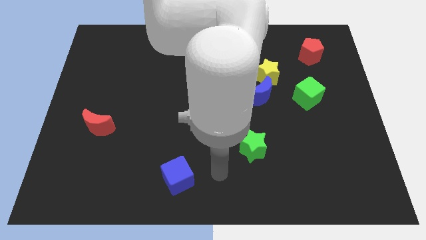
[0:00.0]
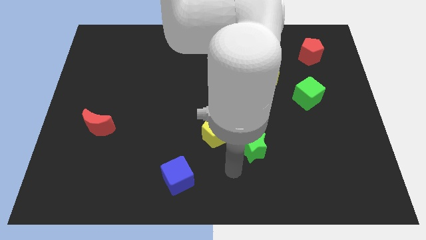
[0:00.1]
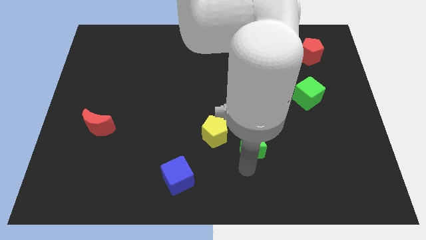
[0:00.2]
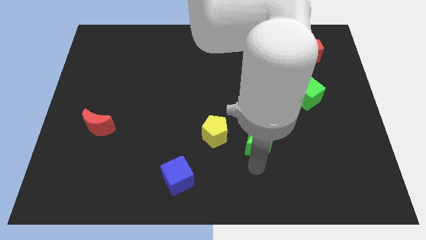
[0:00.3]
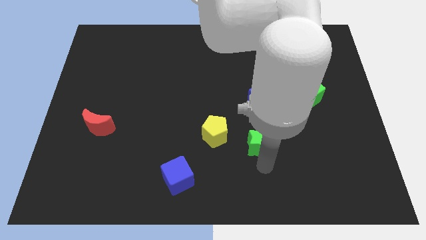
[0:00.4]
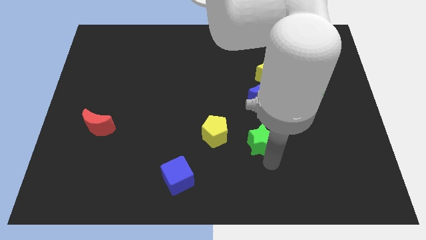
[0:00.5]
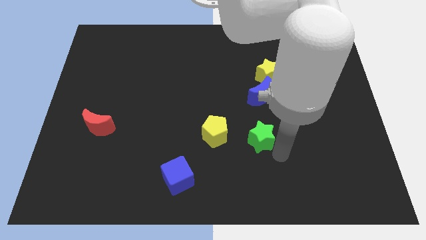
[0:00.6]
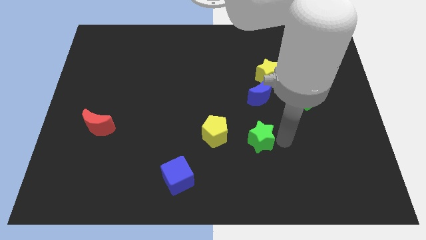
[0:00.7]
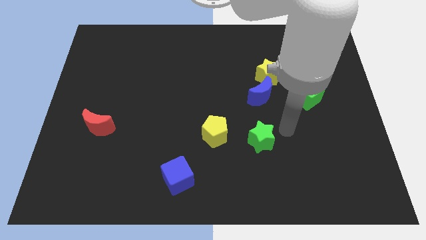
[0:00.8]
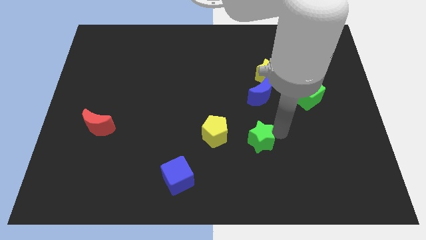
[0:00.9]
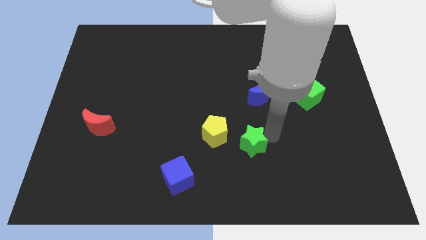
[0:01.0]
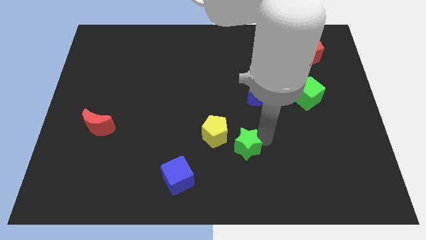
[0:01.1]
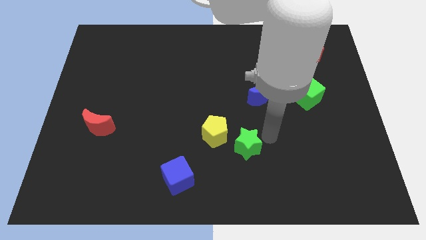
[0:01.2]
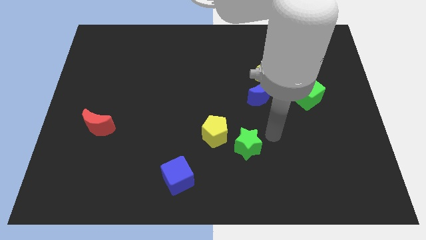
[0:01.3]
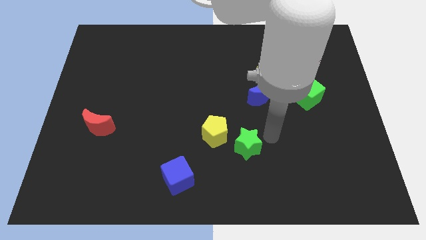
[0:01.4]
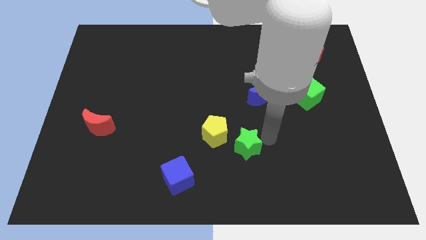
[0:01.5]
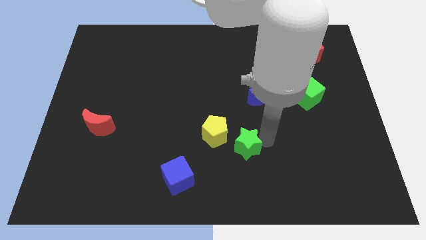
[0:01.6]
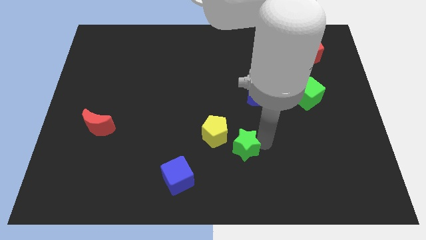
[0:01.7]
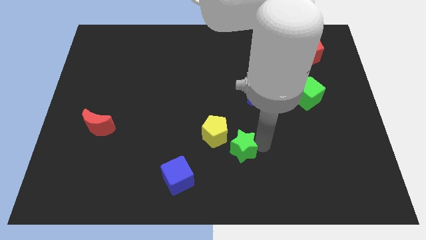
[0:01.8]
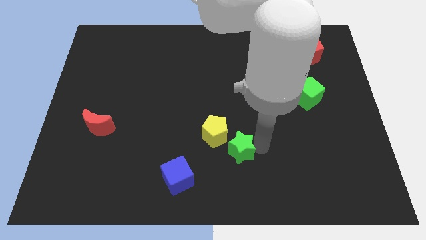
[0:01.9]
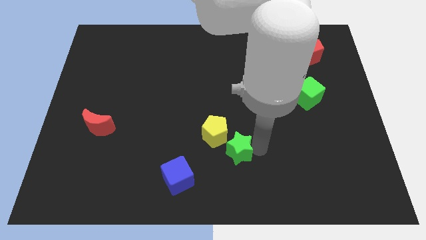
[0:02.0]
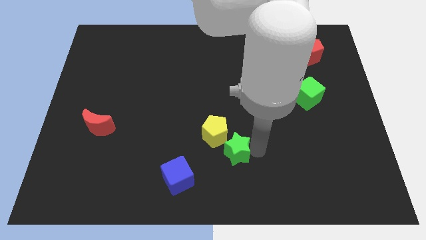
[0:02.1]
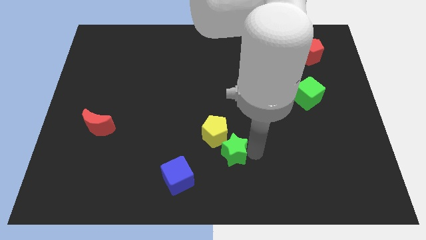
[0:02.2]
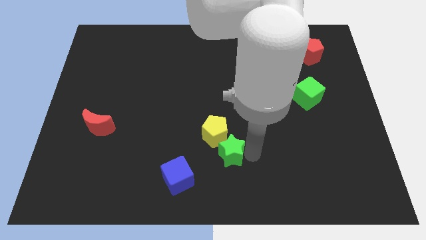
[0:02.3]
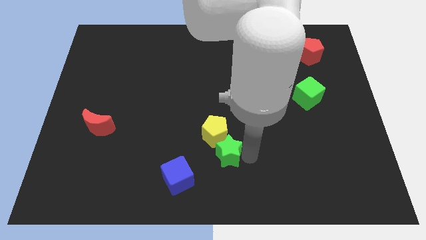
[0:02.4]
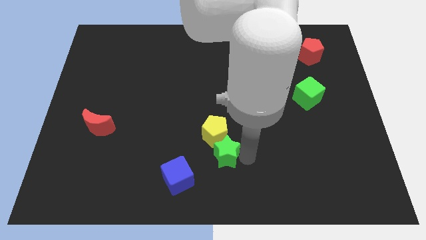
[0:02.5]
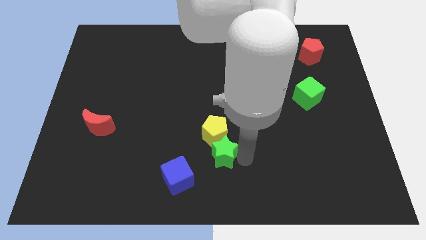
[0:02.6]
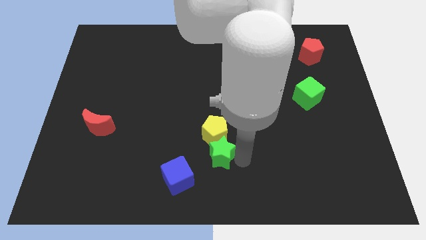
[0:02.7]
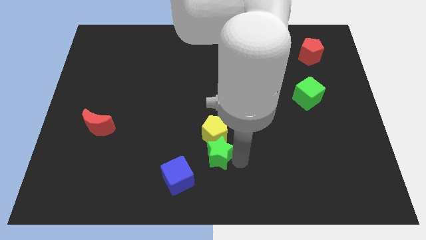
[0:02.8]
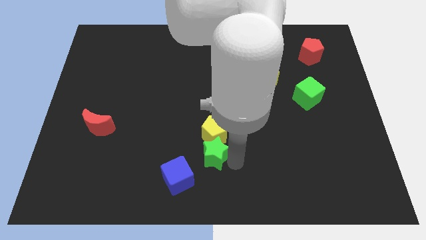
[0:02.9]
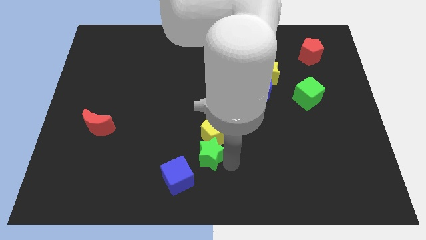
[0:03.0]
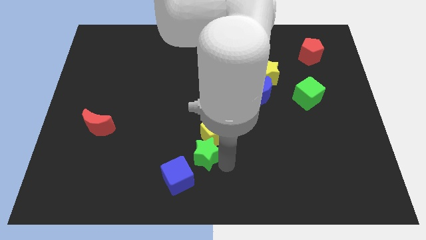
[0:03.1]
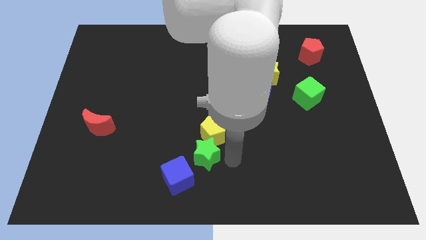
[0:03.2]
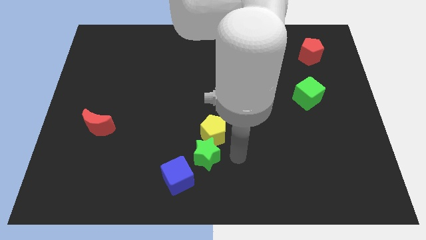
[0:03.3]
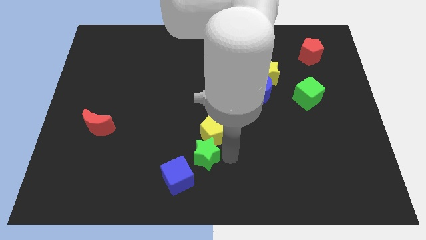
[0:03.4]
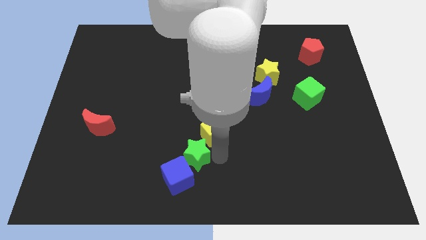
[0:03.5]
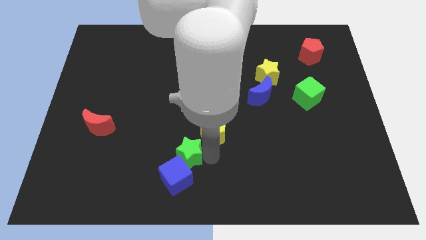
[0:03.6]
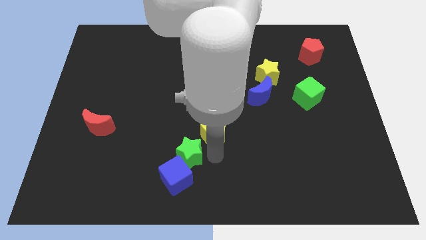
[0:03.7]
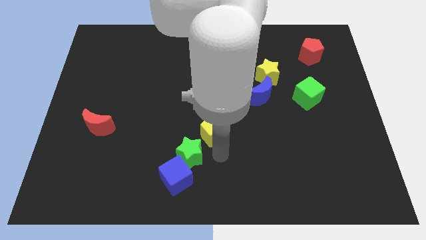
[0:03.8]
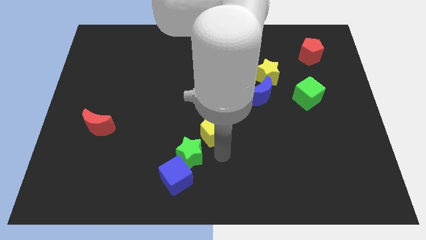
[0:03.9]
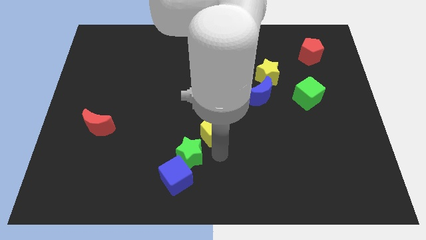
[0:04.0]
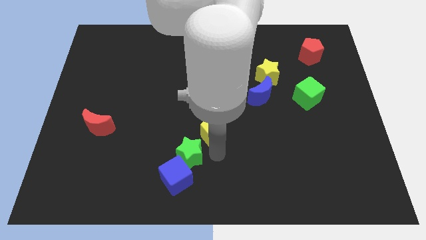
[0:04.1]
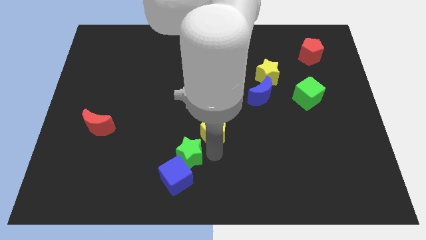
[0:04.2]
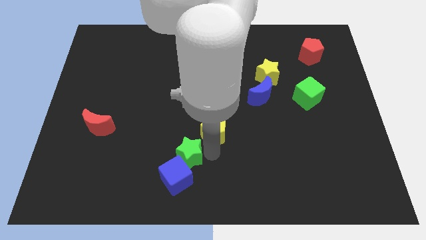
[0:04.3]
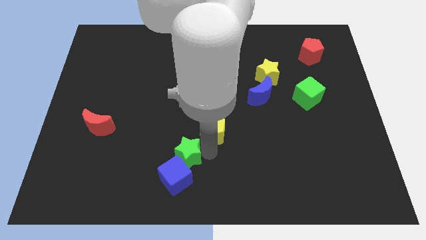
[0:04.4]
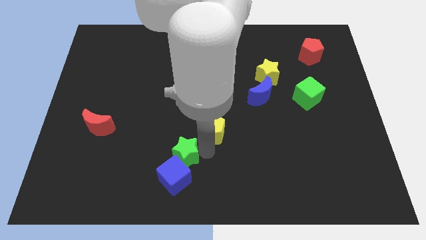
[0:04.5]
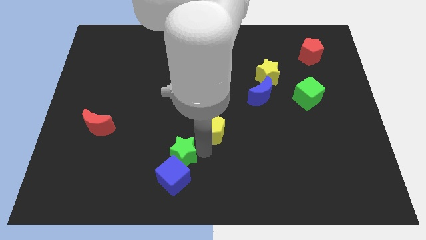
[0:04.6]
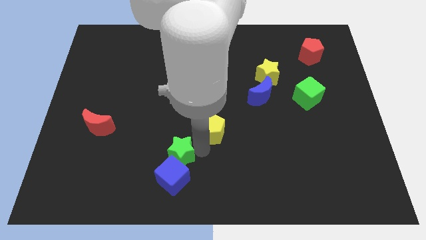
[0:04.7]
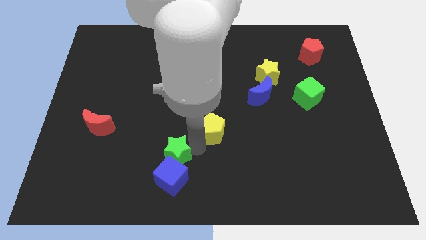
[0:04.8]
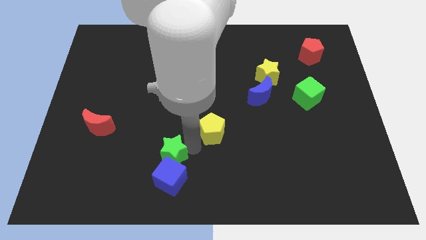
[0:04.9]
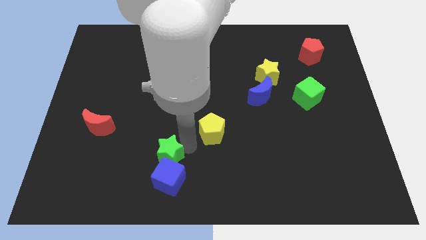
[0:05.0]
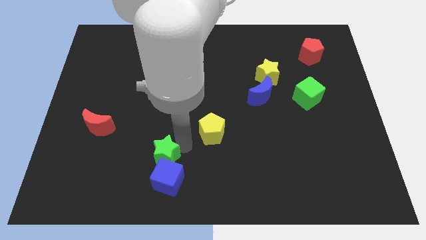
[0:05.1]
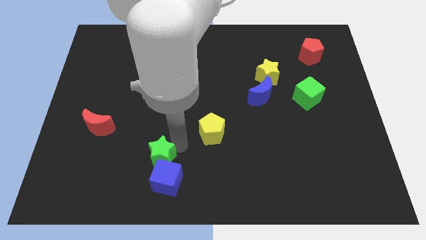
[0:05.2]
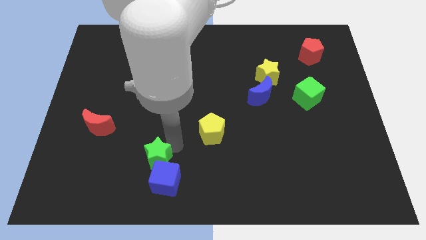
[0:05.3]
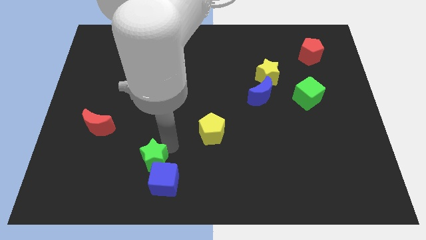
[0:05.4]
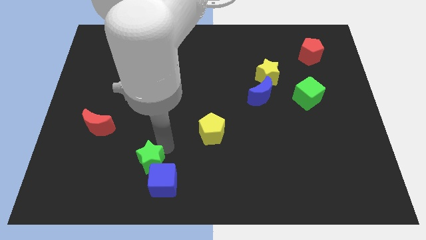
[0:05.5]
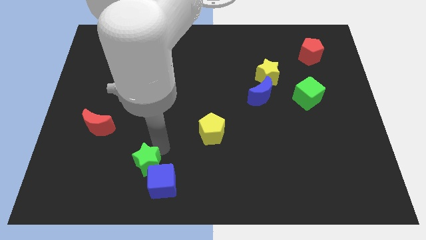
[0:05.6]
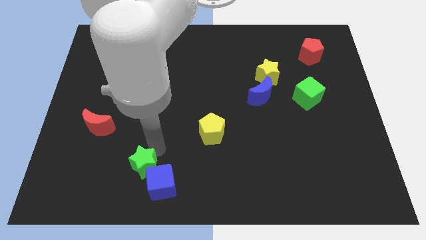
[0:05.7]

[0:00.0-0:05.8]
slide the green star to the left side of the blue cube

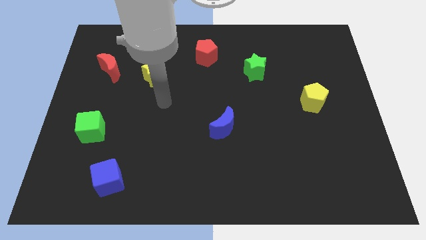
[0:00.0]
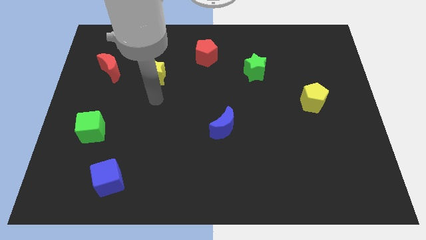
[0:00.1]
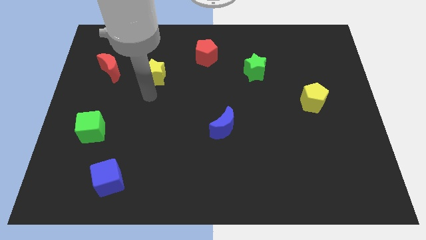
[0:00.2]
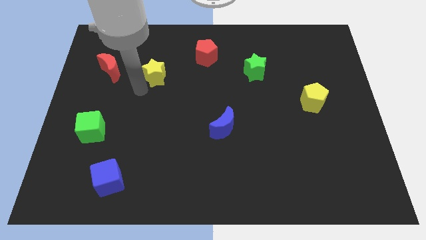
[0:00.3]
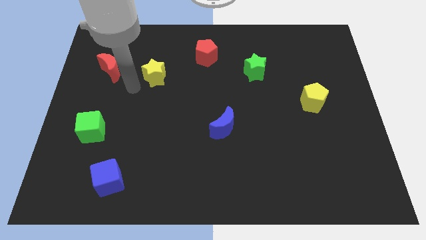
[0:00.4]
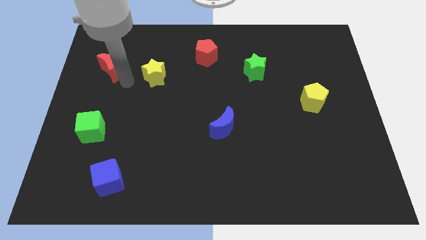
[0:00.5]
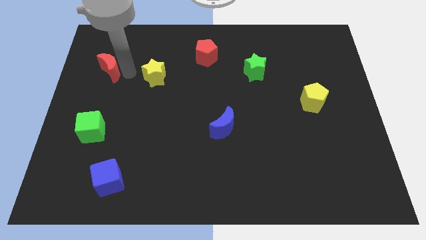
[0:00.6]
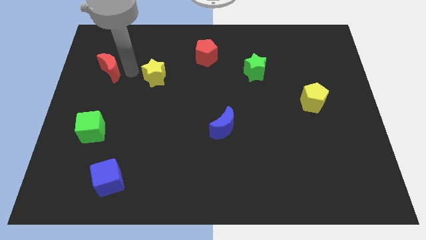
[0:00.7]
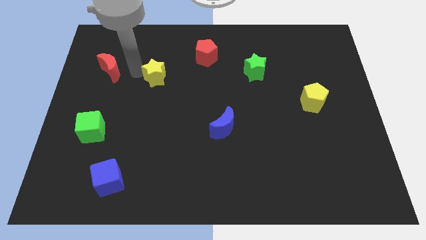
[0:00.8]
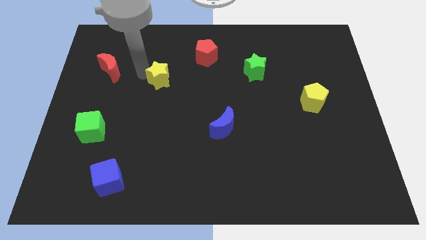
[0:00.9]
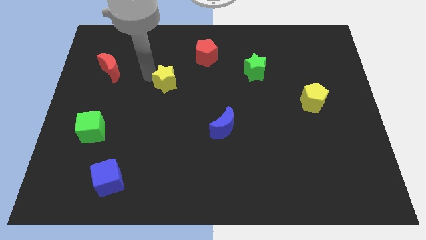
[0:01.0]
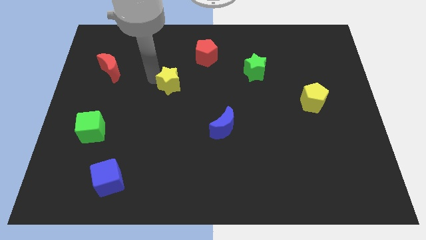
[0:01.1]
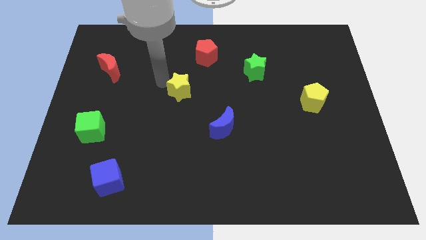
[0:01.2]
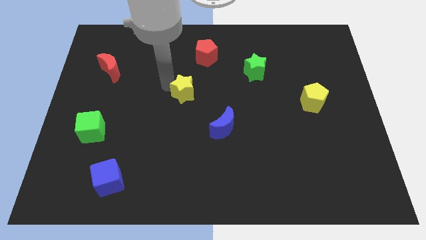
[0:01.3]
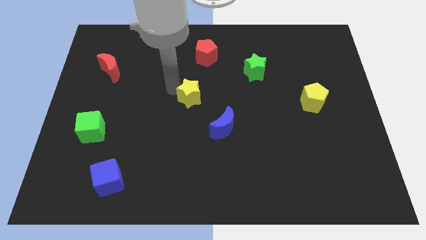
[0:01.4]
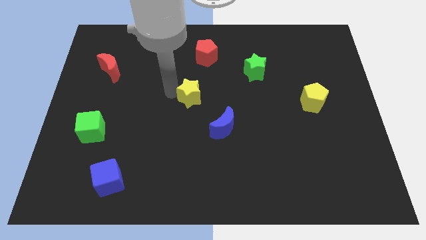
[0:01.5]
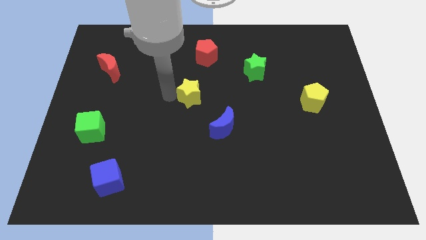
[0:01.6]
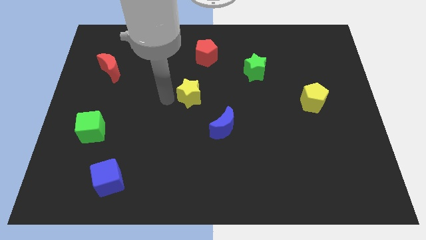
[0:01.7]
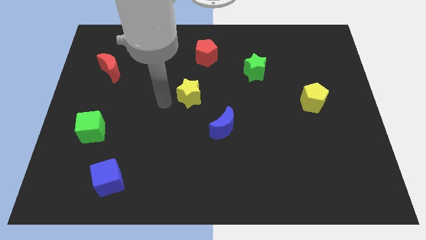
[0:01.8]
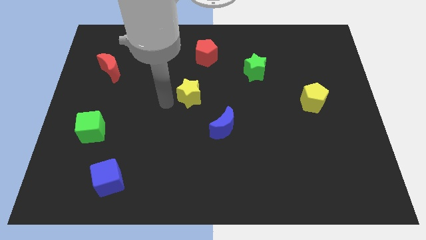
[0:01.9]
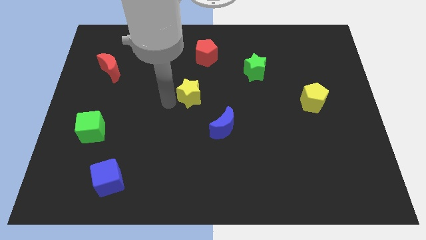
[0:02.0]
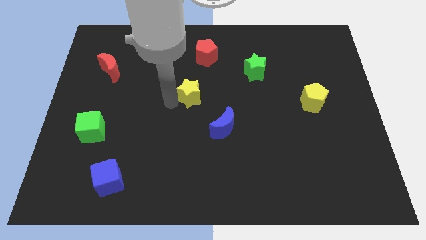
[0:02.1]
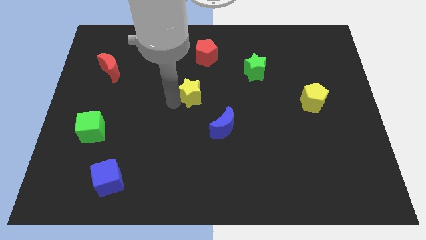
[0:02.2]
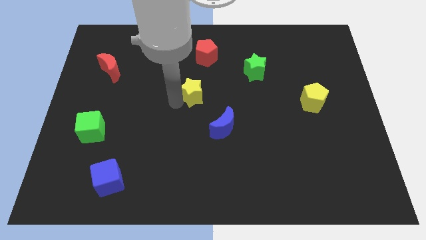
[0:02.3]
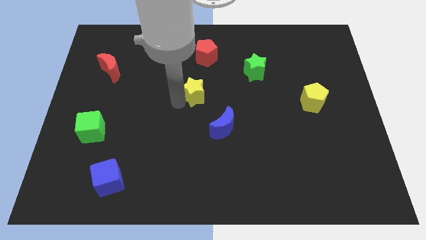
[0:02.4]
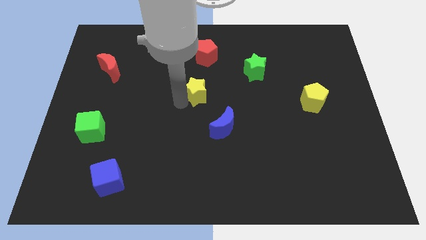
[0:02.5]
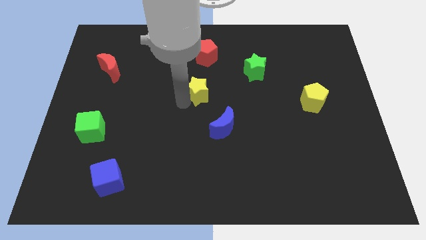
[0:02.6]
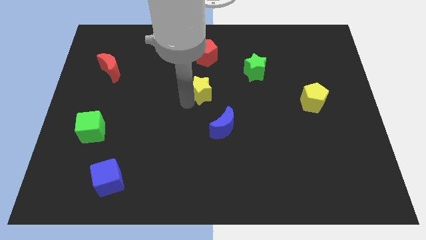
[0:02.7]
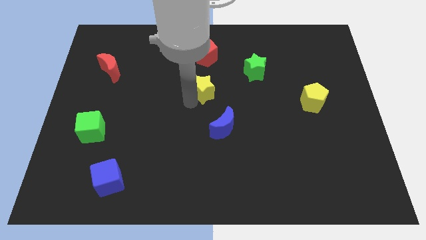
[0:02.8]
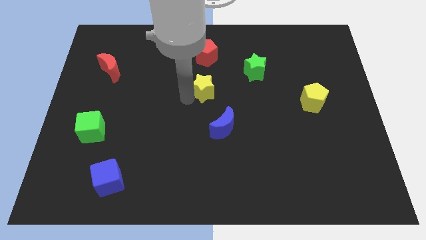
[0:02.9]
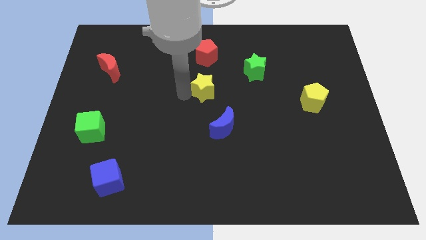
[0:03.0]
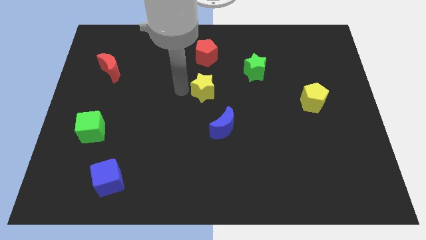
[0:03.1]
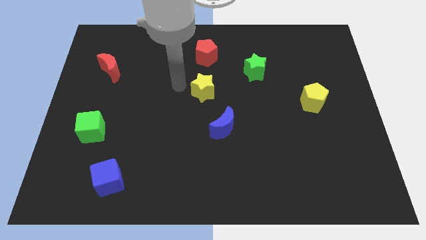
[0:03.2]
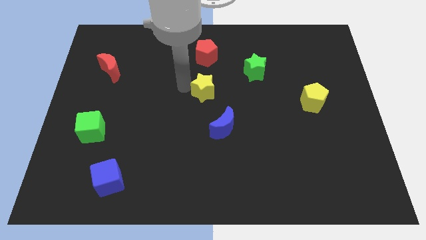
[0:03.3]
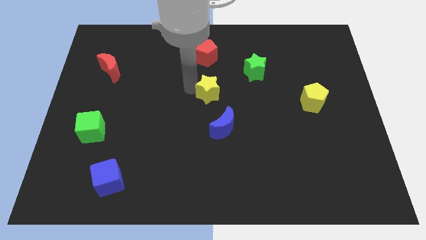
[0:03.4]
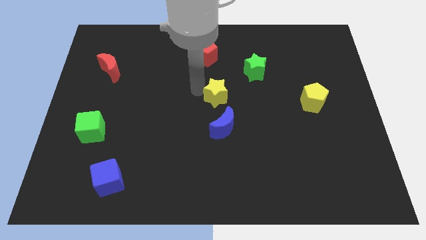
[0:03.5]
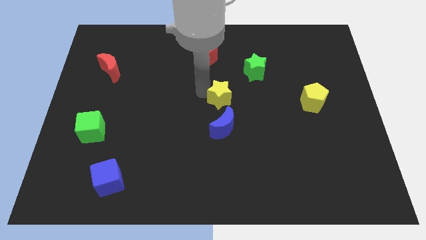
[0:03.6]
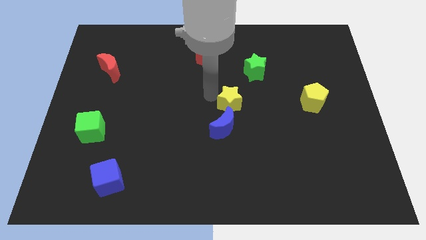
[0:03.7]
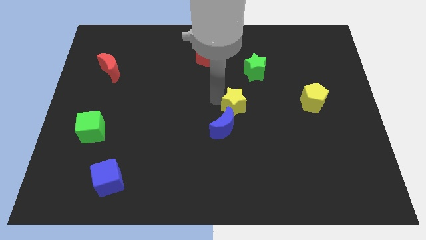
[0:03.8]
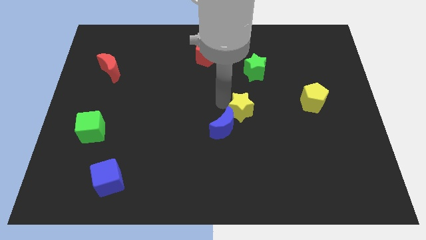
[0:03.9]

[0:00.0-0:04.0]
move the yellow star to the bottom of the green star
